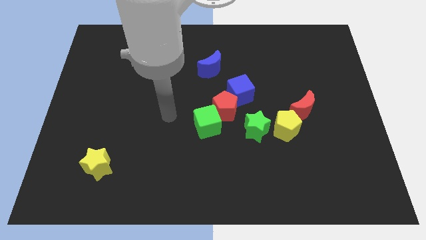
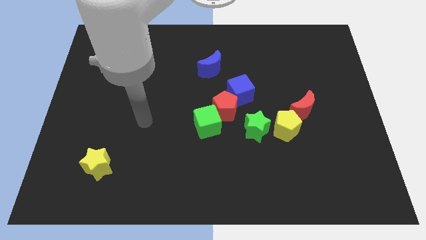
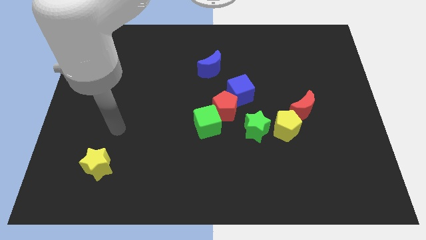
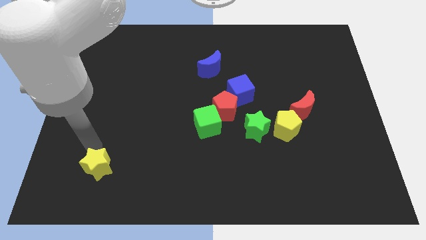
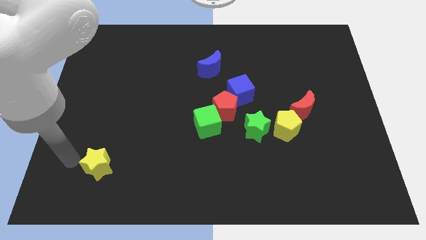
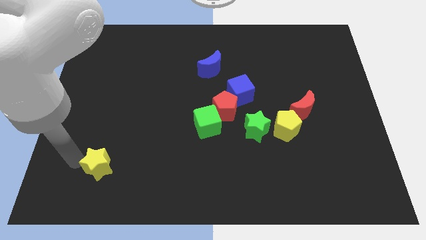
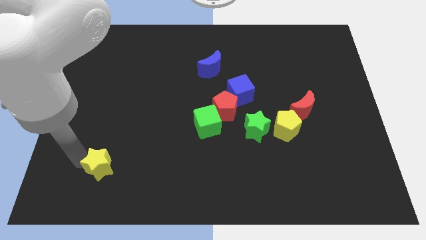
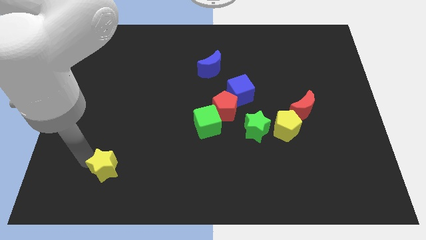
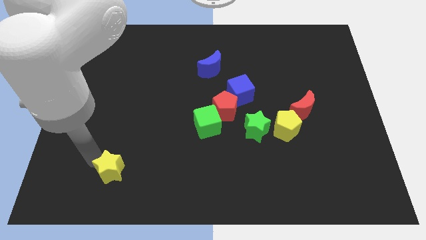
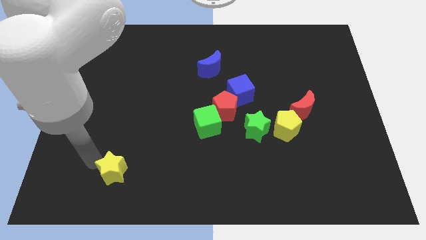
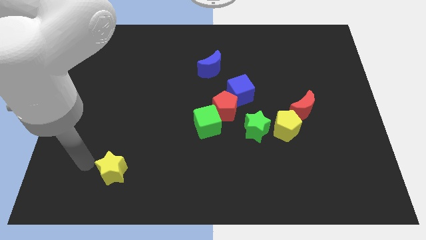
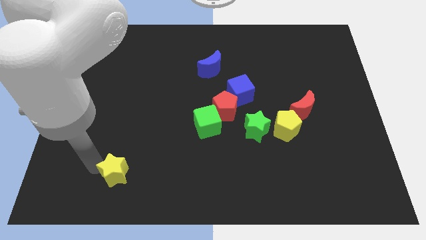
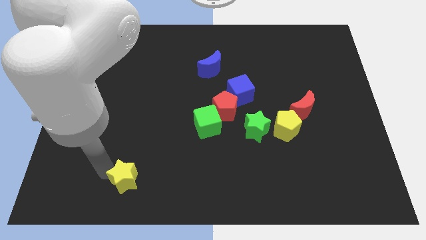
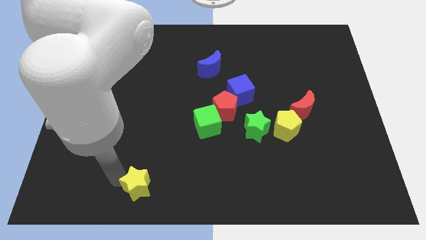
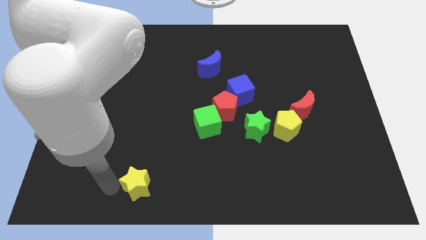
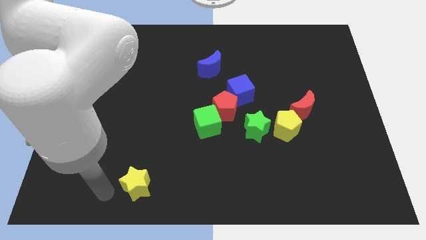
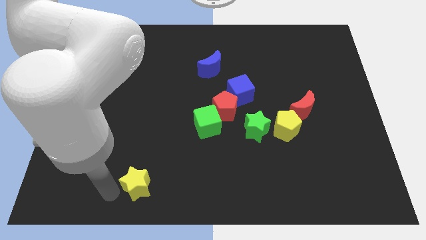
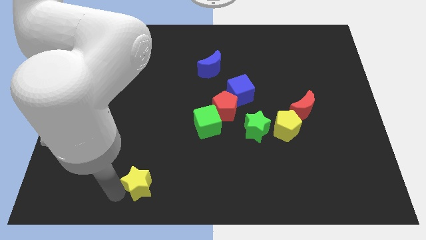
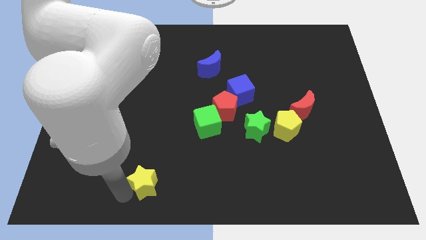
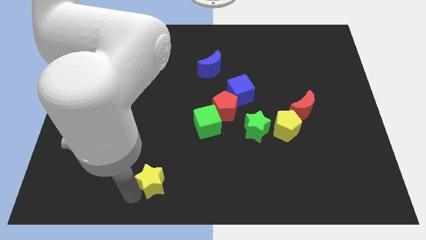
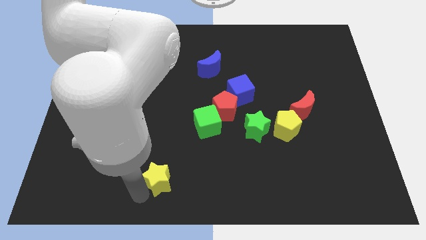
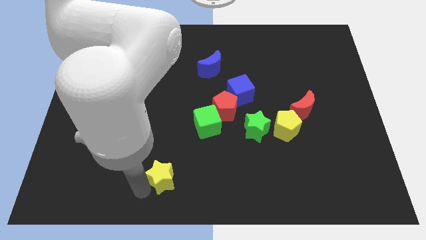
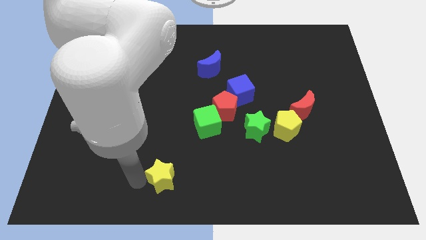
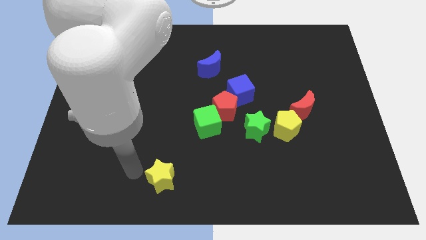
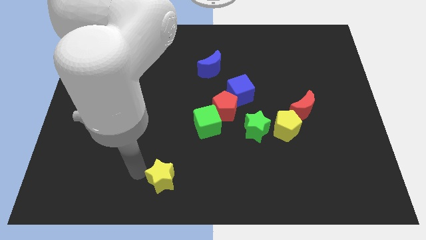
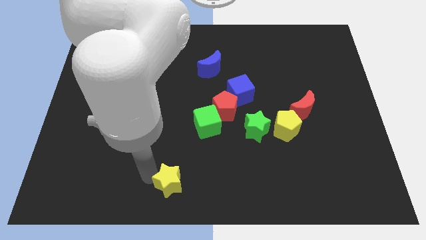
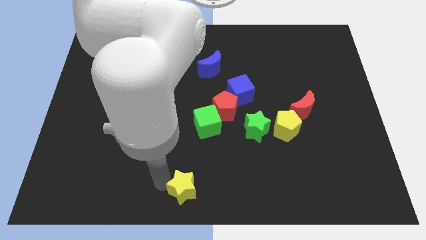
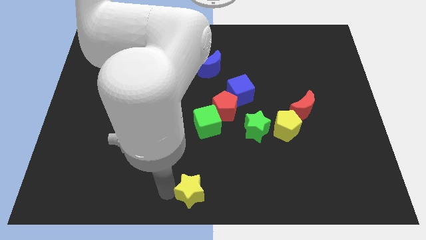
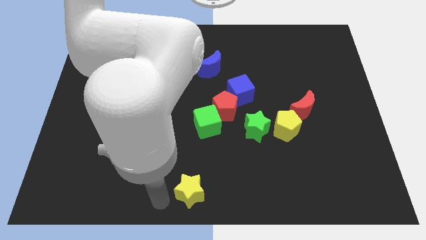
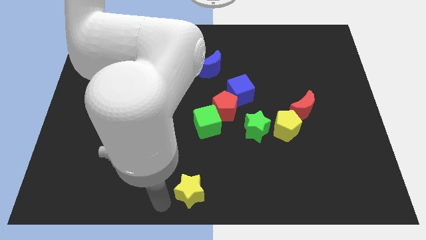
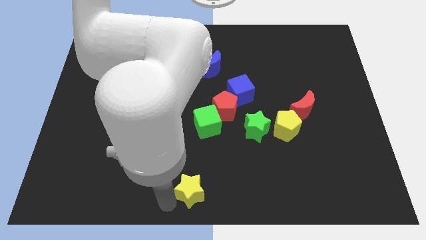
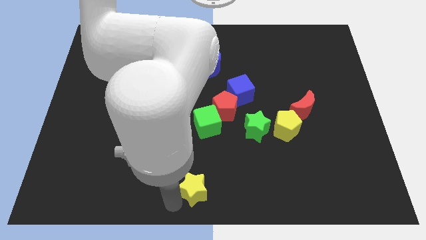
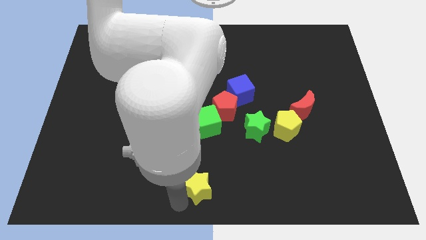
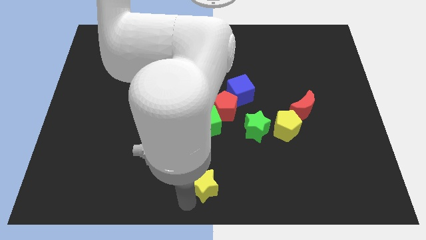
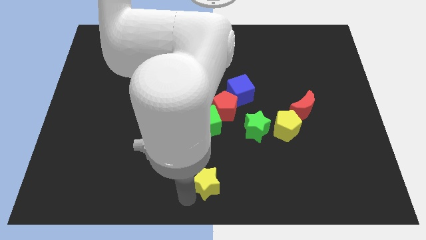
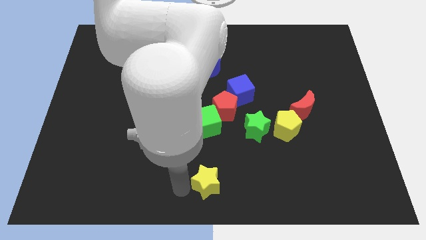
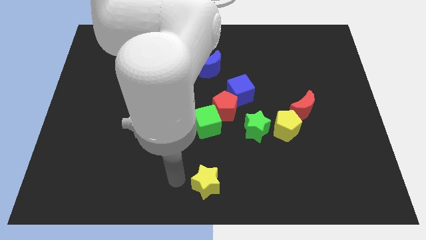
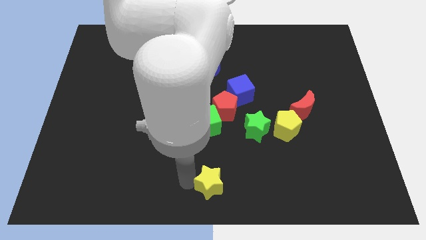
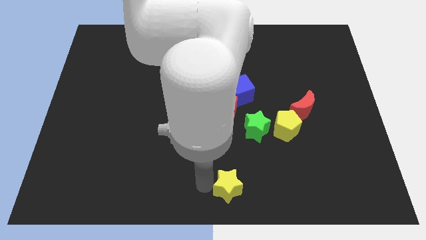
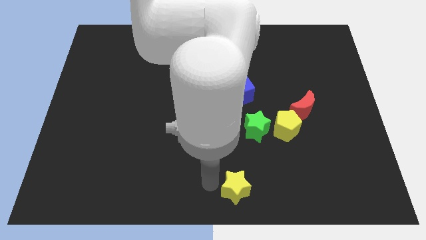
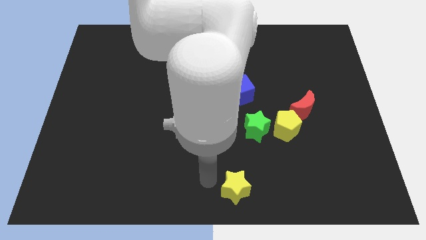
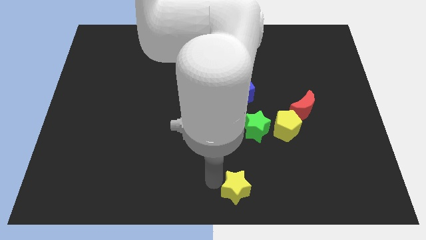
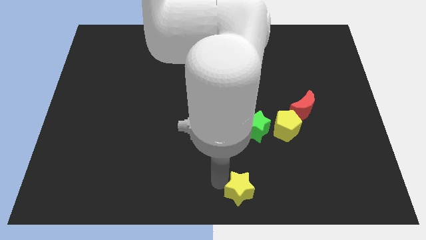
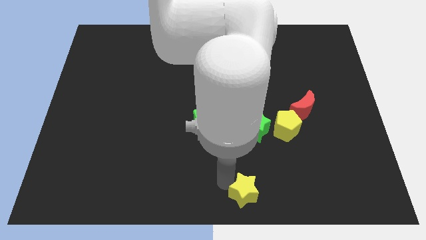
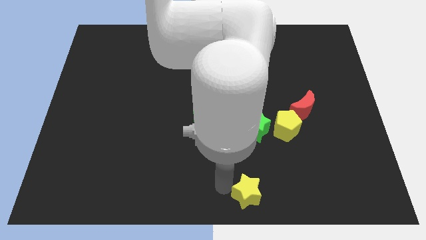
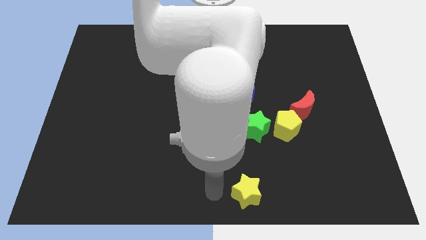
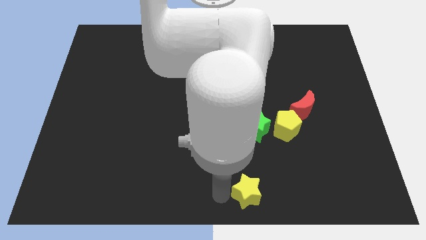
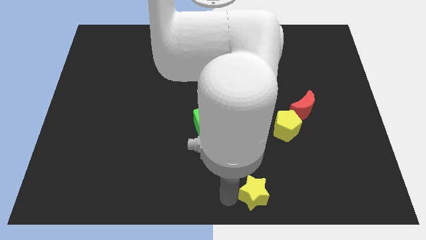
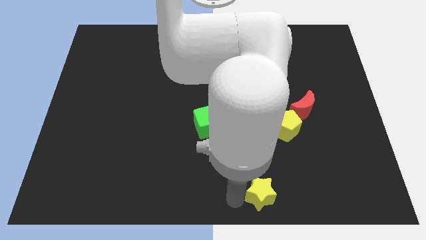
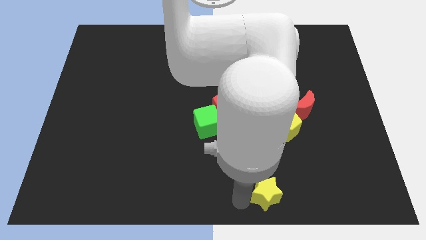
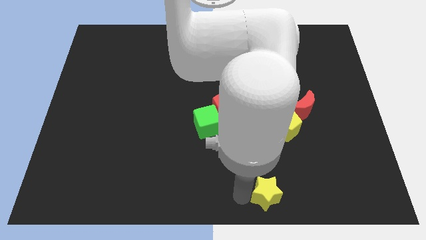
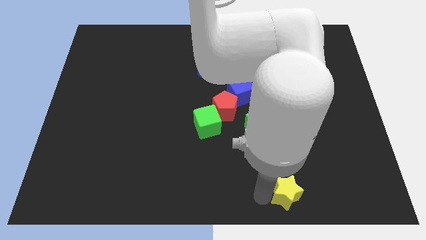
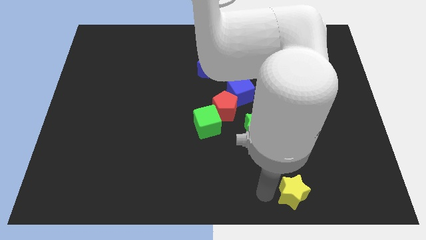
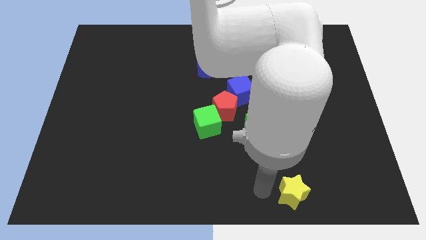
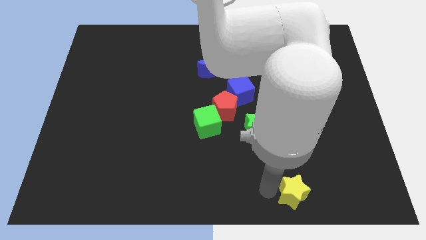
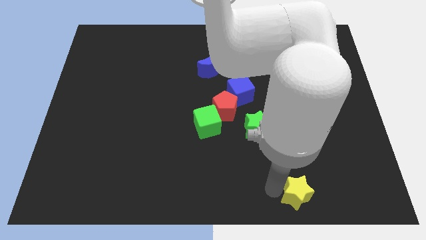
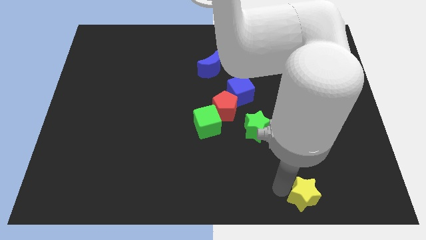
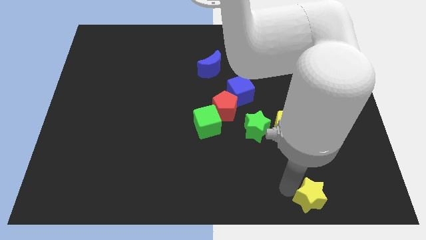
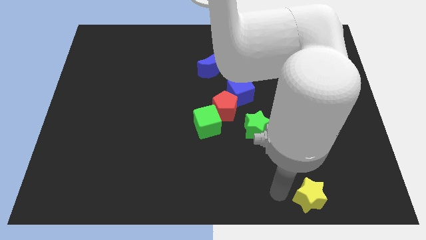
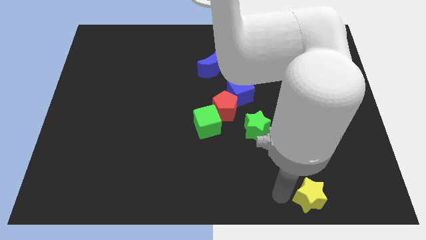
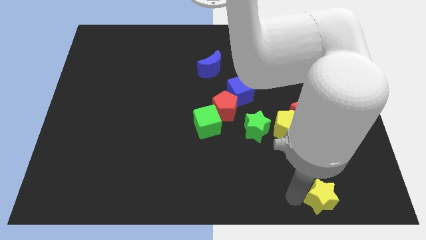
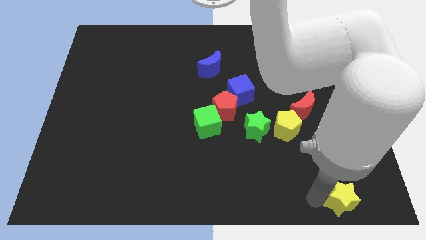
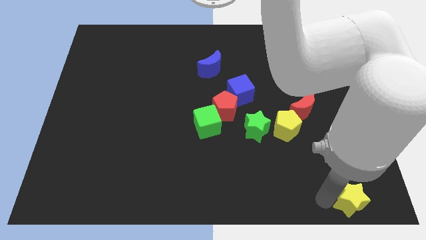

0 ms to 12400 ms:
push the yellow star to the bottom right
